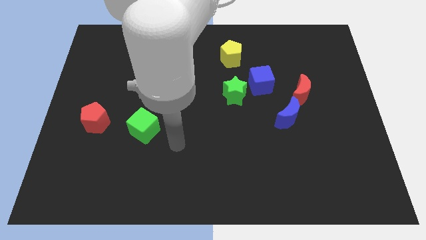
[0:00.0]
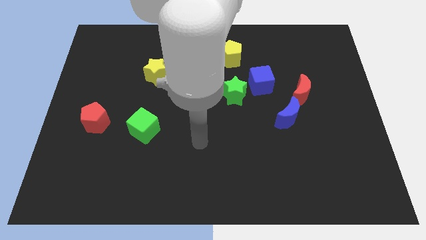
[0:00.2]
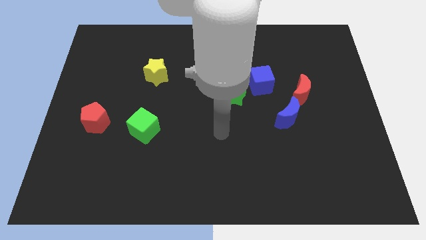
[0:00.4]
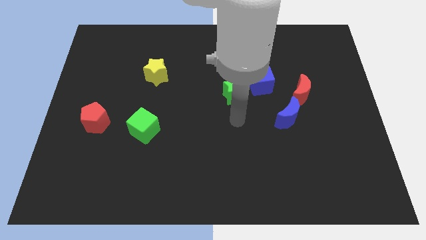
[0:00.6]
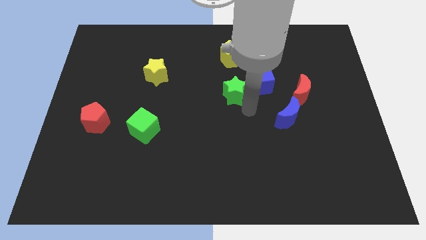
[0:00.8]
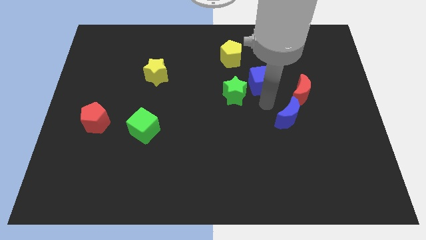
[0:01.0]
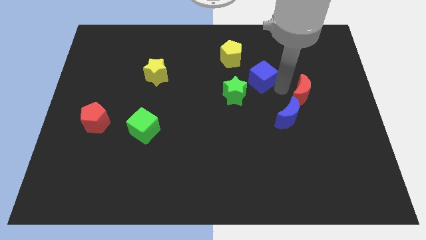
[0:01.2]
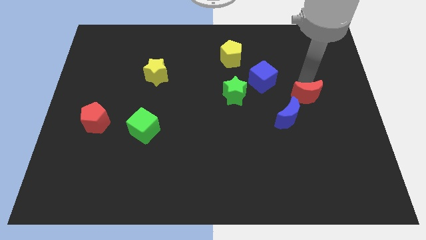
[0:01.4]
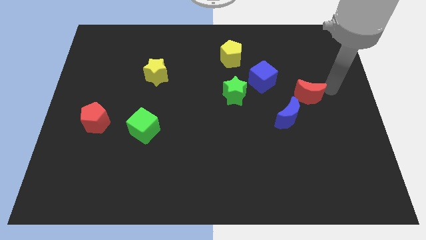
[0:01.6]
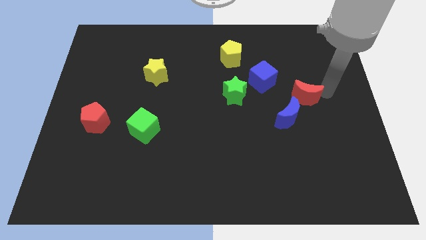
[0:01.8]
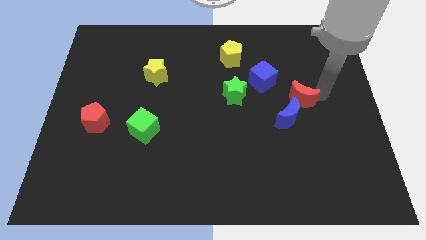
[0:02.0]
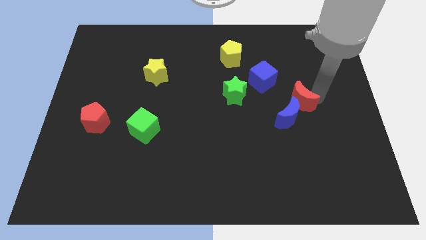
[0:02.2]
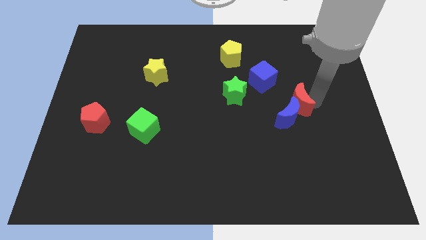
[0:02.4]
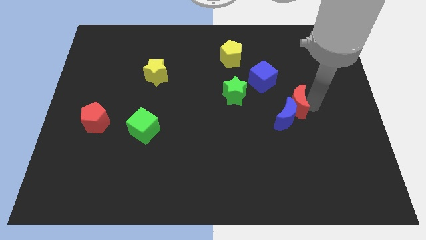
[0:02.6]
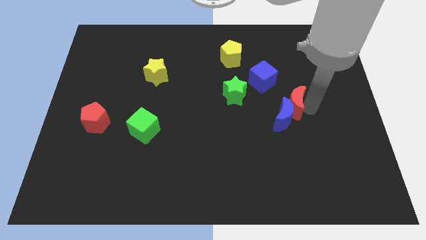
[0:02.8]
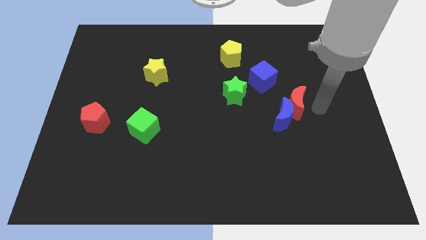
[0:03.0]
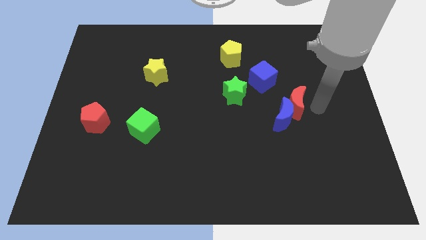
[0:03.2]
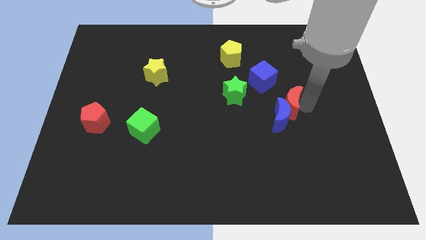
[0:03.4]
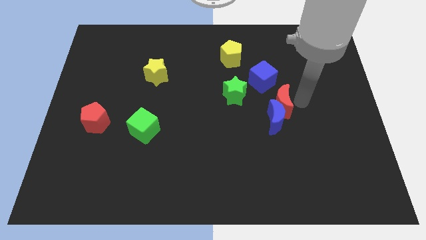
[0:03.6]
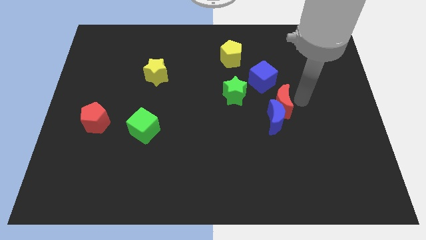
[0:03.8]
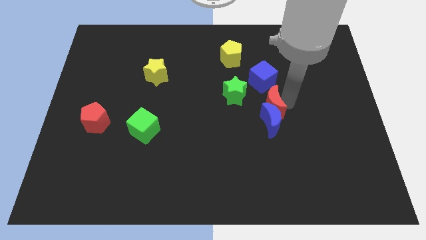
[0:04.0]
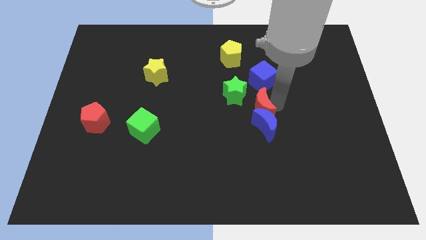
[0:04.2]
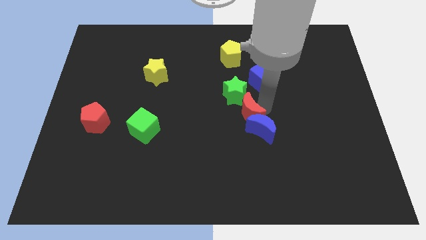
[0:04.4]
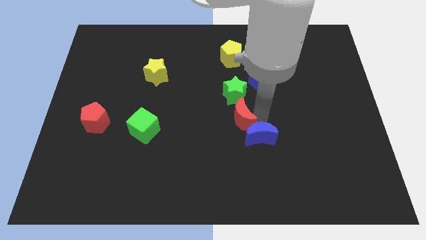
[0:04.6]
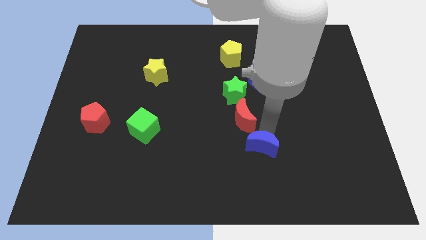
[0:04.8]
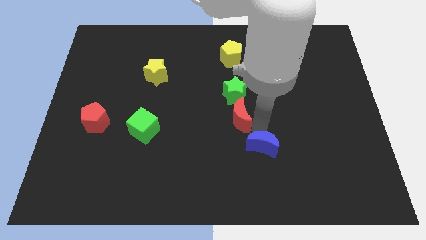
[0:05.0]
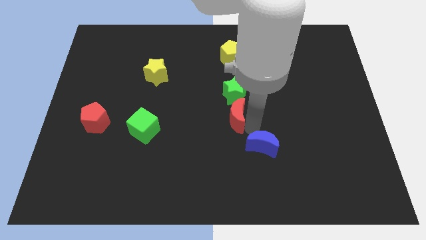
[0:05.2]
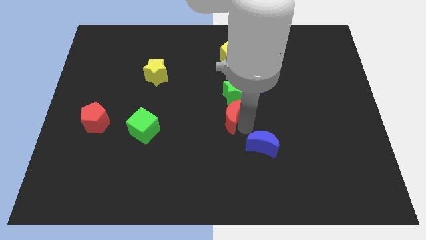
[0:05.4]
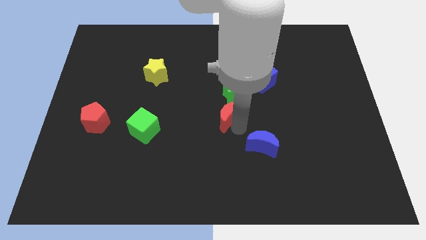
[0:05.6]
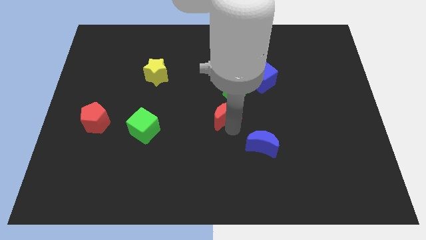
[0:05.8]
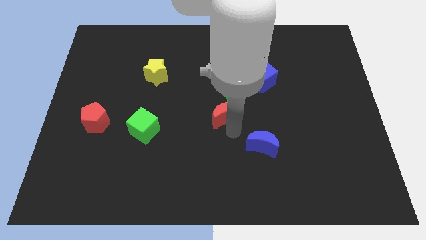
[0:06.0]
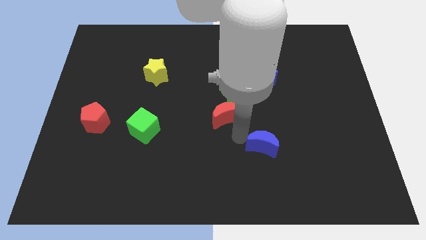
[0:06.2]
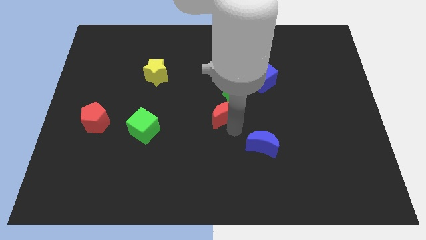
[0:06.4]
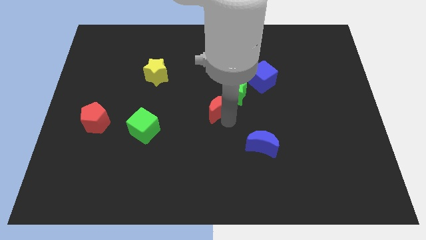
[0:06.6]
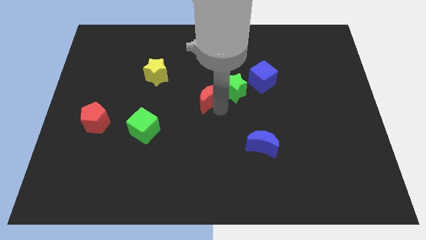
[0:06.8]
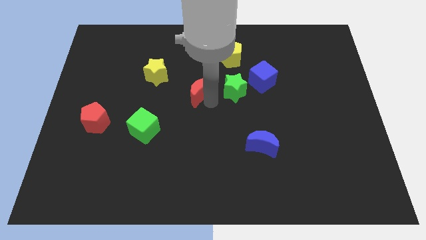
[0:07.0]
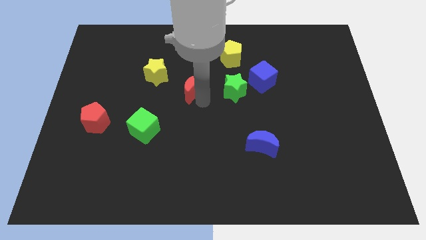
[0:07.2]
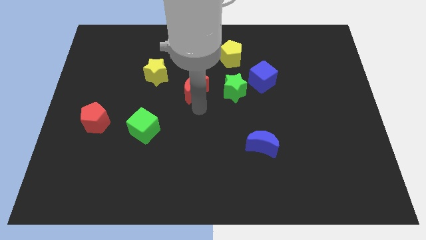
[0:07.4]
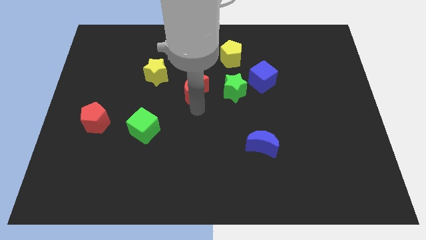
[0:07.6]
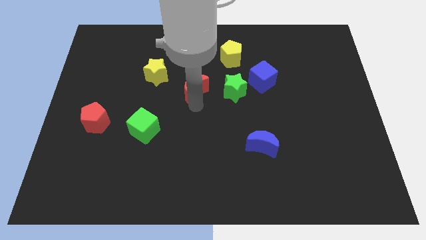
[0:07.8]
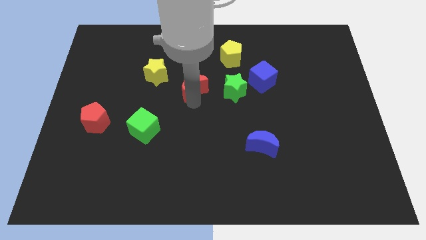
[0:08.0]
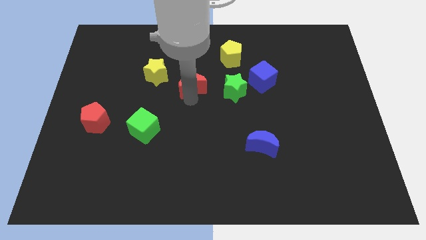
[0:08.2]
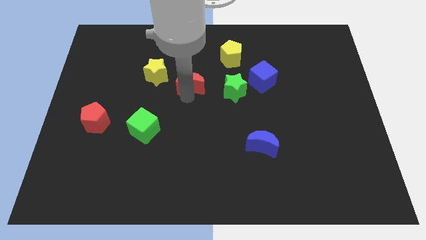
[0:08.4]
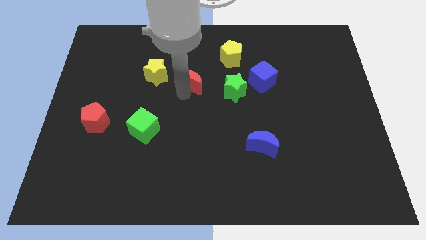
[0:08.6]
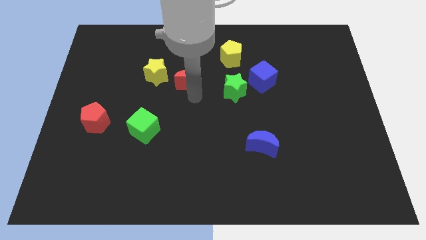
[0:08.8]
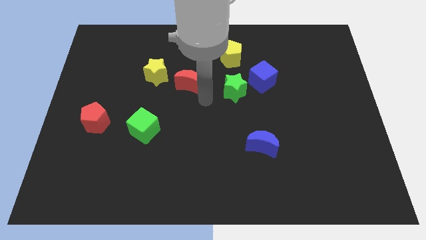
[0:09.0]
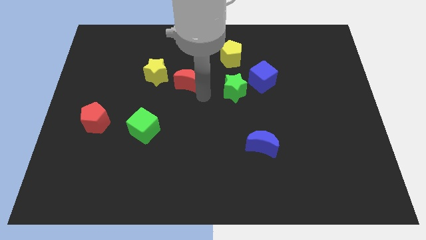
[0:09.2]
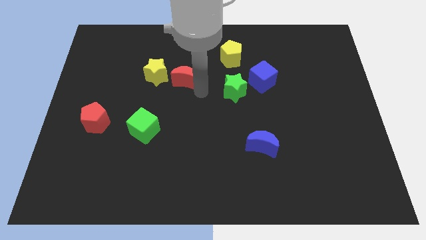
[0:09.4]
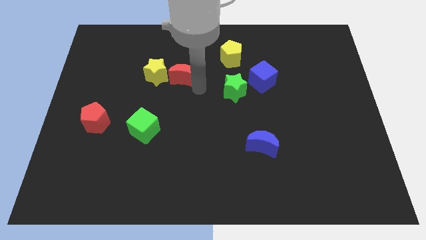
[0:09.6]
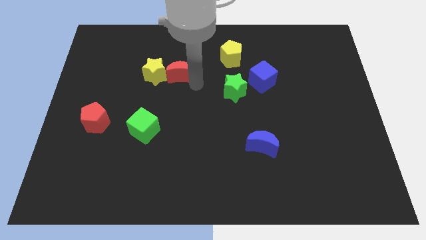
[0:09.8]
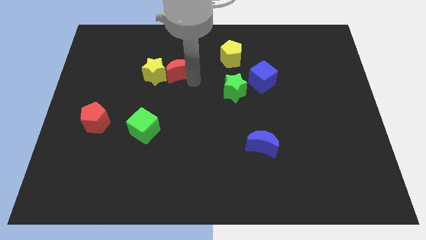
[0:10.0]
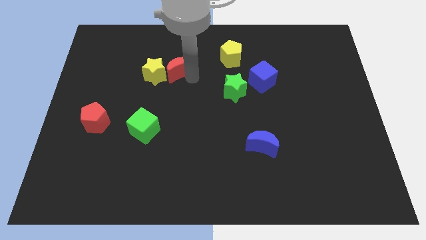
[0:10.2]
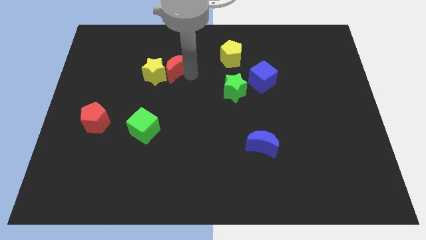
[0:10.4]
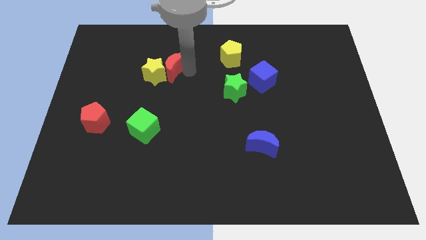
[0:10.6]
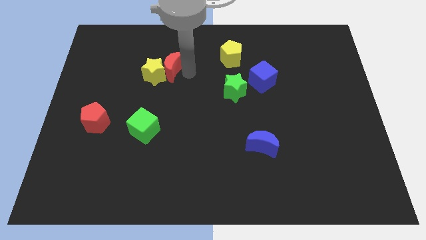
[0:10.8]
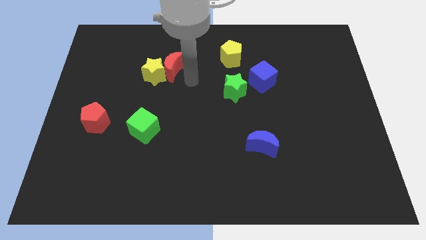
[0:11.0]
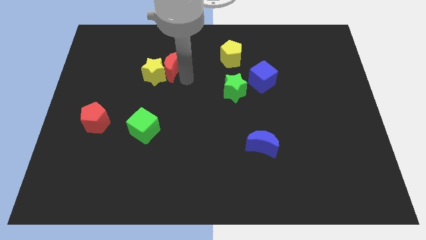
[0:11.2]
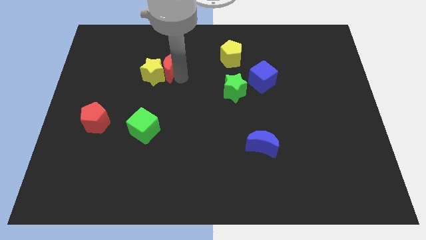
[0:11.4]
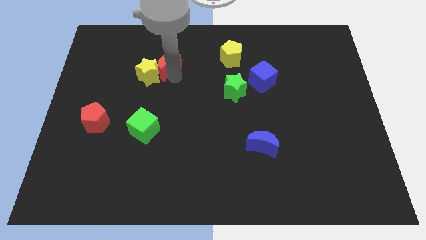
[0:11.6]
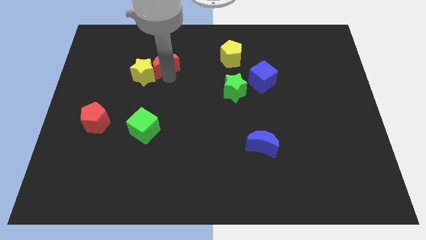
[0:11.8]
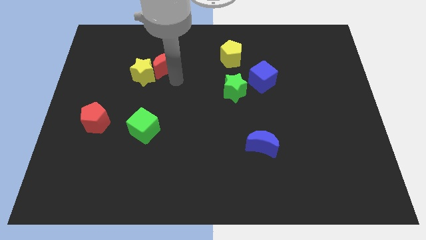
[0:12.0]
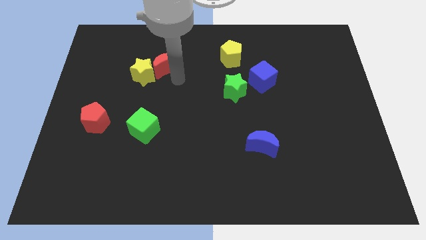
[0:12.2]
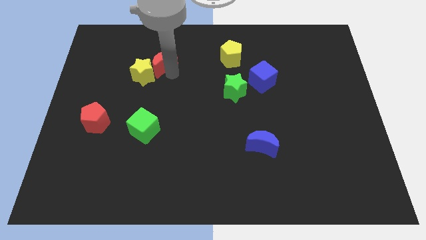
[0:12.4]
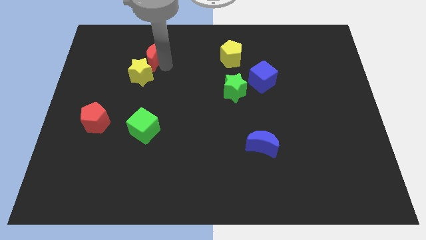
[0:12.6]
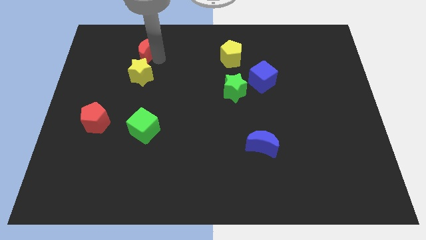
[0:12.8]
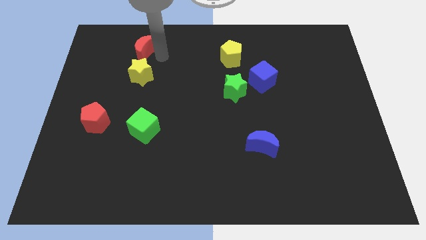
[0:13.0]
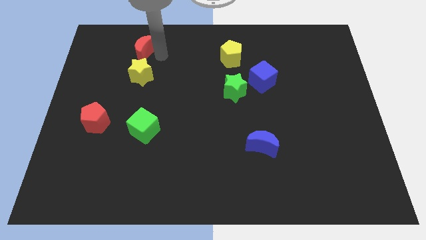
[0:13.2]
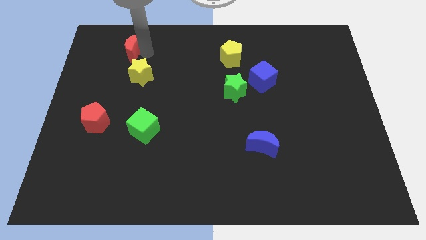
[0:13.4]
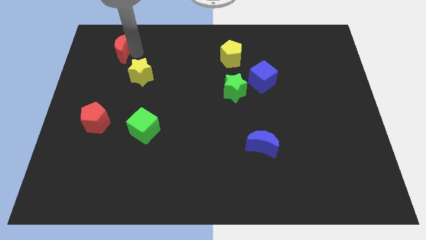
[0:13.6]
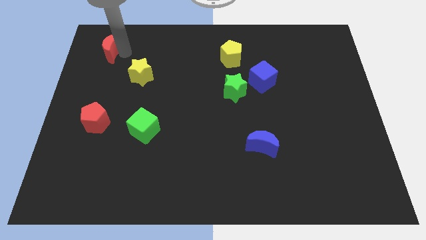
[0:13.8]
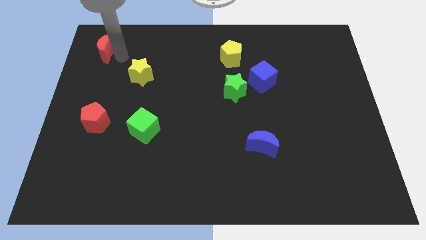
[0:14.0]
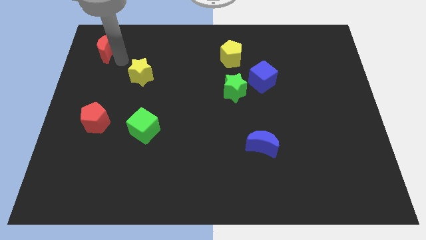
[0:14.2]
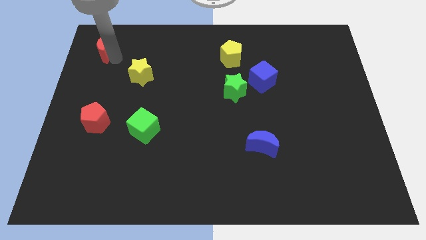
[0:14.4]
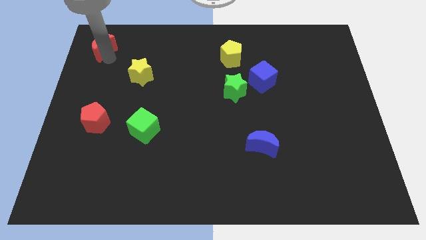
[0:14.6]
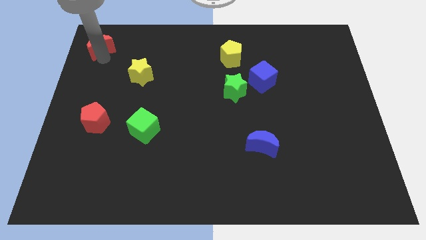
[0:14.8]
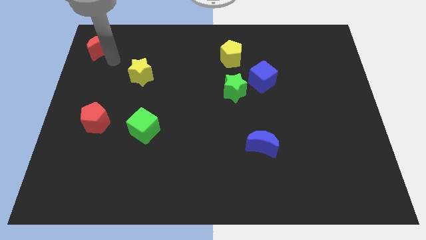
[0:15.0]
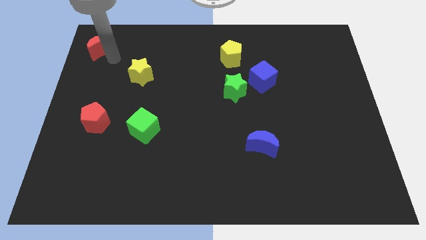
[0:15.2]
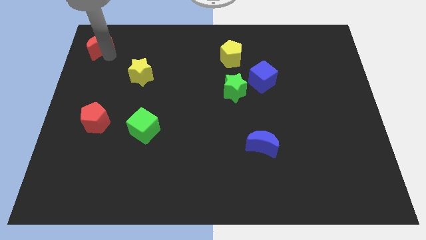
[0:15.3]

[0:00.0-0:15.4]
put the red moon to the top left
